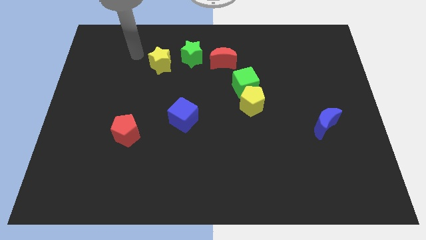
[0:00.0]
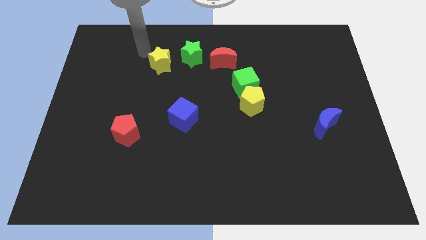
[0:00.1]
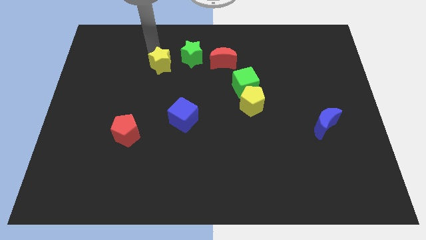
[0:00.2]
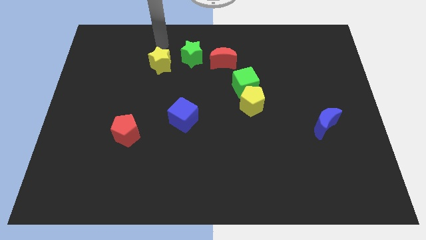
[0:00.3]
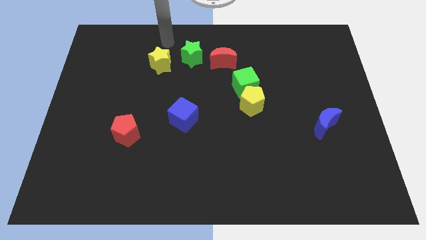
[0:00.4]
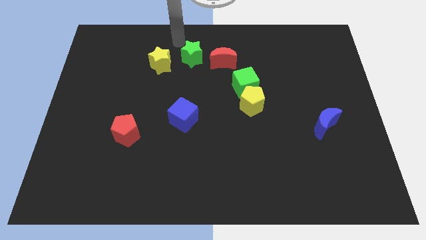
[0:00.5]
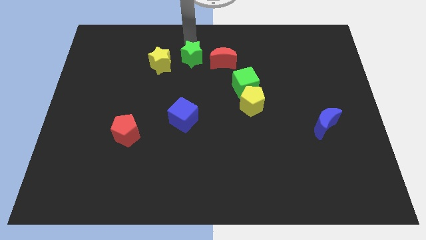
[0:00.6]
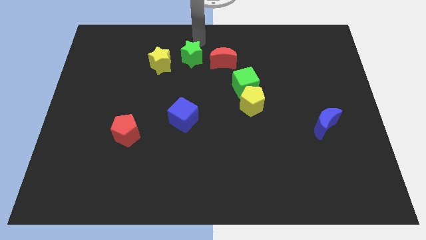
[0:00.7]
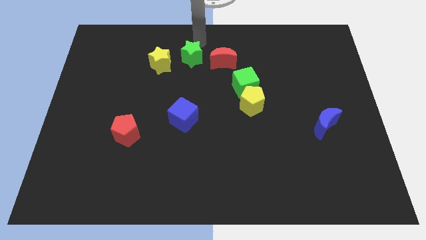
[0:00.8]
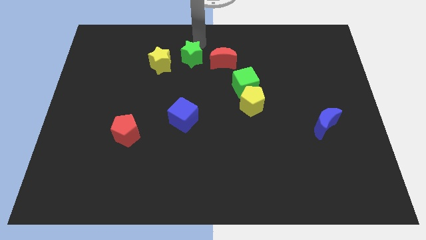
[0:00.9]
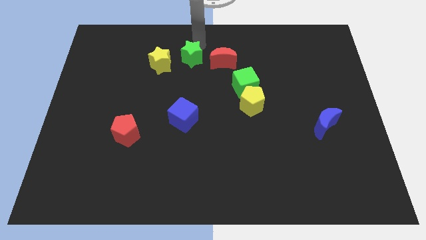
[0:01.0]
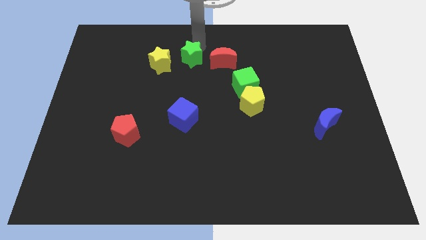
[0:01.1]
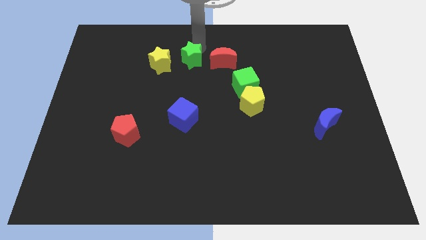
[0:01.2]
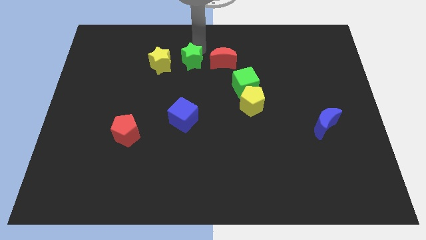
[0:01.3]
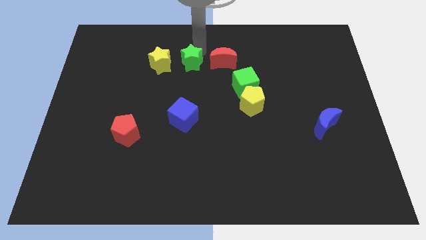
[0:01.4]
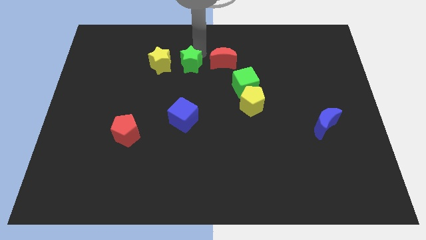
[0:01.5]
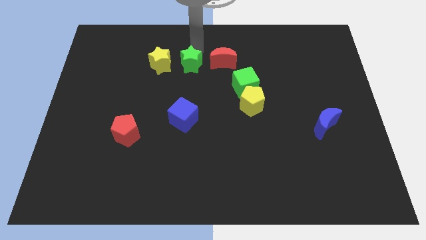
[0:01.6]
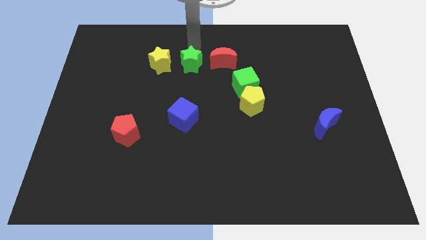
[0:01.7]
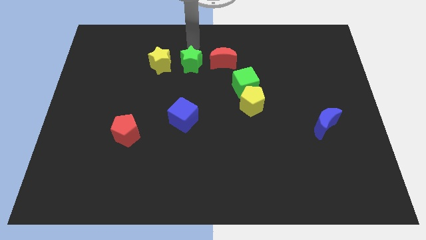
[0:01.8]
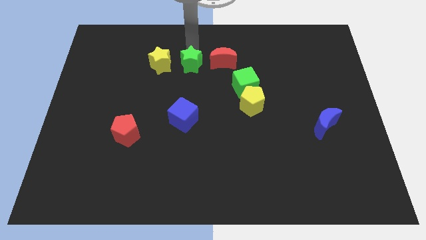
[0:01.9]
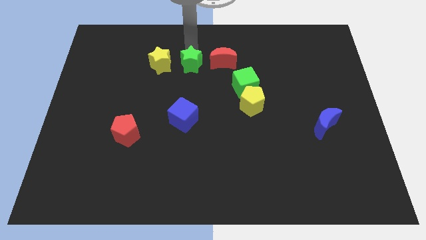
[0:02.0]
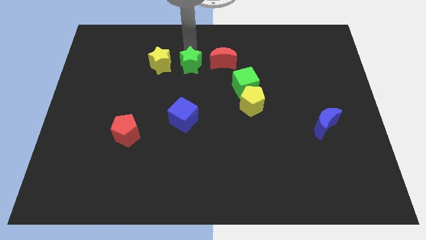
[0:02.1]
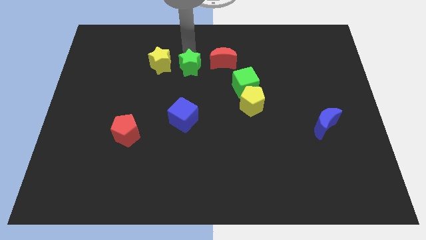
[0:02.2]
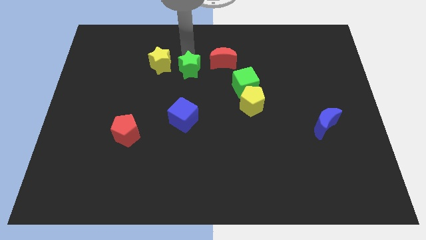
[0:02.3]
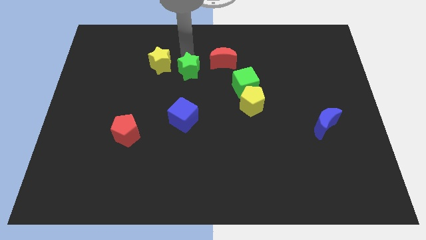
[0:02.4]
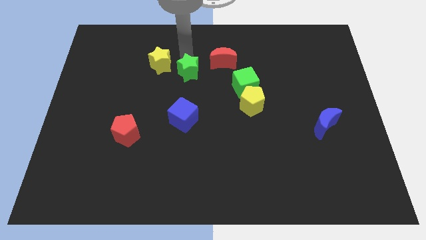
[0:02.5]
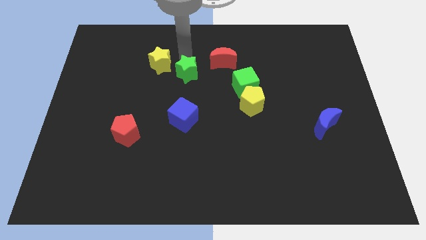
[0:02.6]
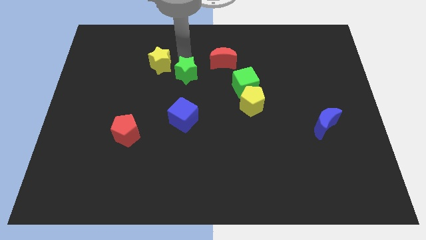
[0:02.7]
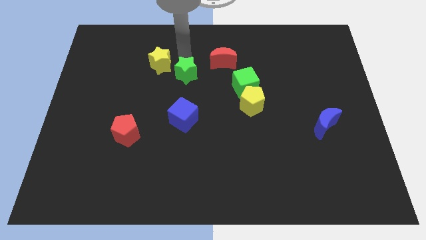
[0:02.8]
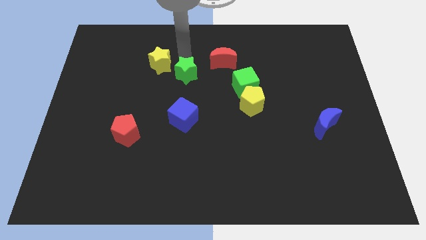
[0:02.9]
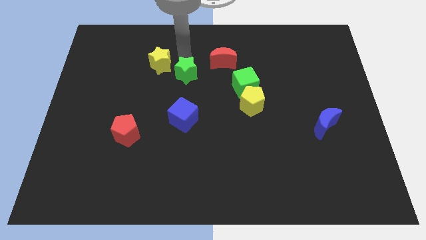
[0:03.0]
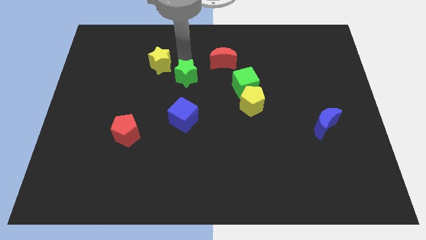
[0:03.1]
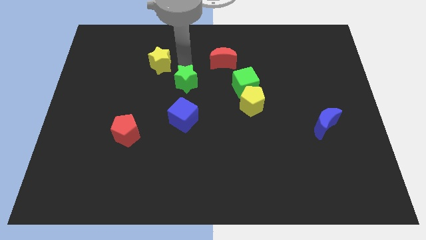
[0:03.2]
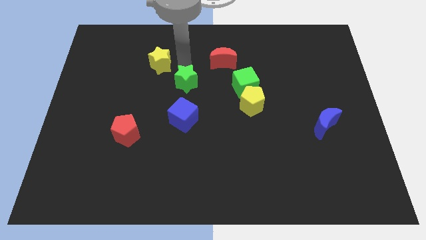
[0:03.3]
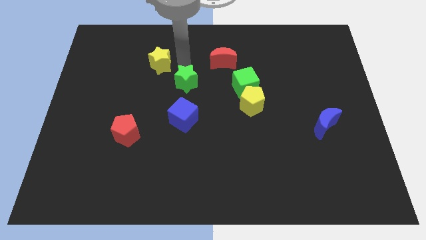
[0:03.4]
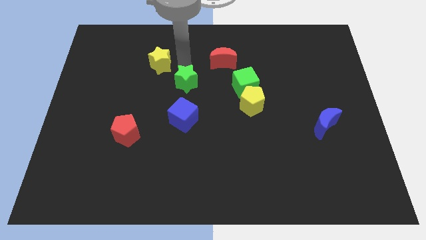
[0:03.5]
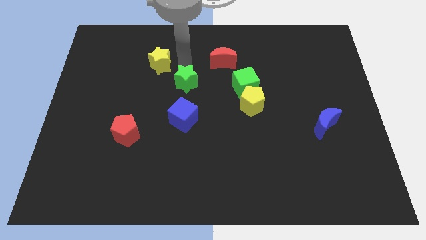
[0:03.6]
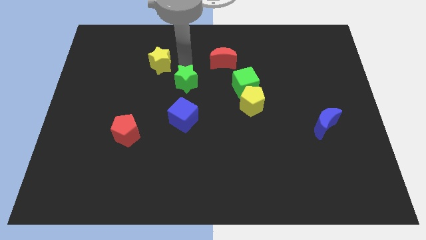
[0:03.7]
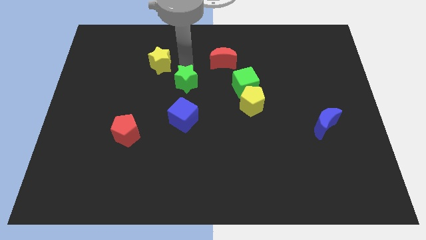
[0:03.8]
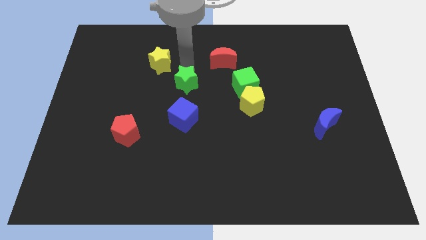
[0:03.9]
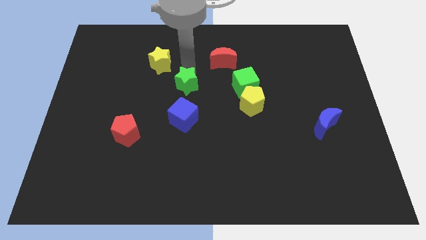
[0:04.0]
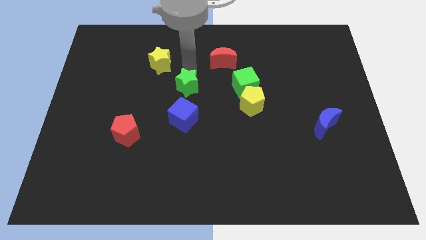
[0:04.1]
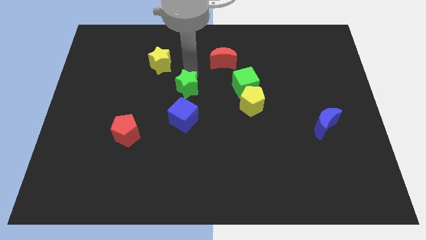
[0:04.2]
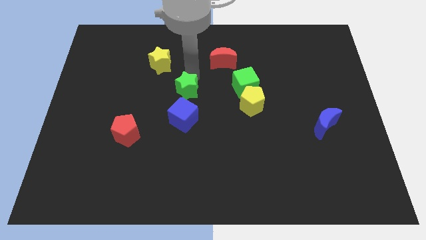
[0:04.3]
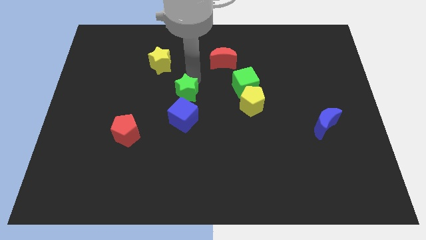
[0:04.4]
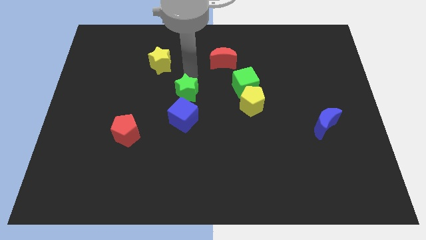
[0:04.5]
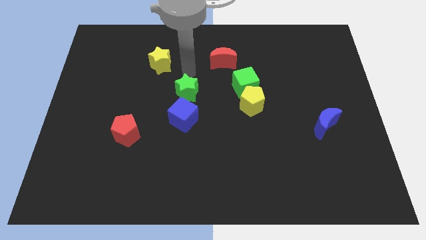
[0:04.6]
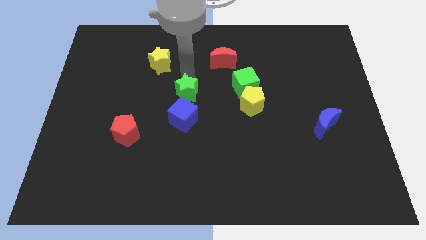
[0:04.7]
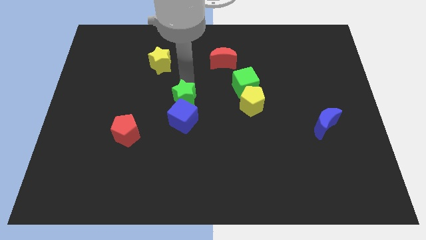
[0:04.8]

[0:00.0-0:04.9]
move the green star close to the blue cube

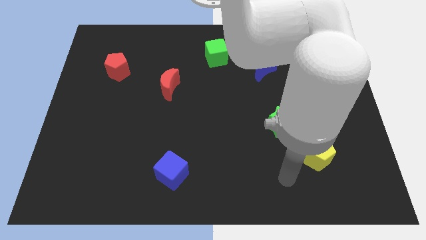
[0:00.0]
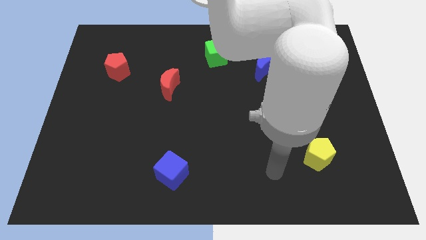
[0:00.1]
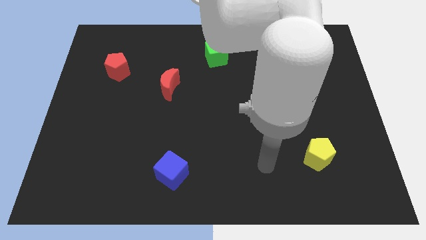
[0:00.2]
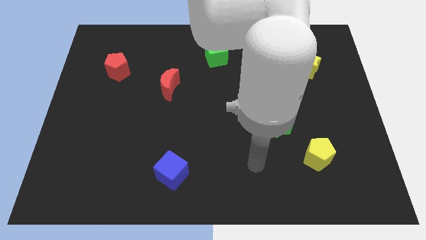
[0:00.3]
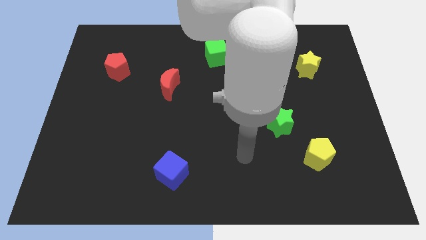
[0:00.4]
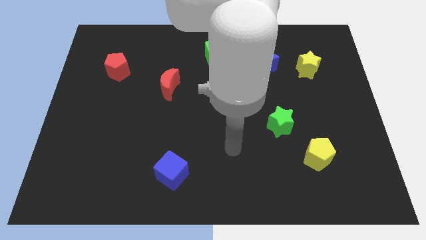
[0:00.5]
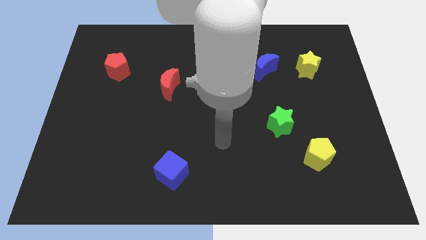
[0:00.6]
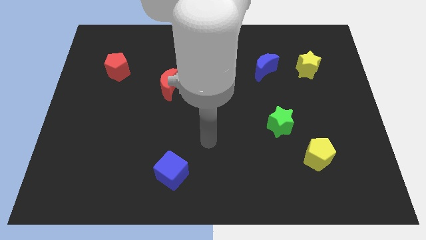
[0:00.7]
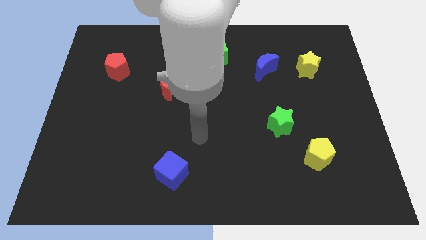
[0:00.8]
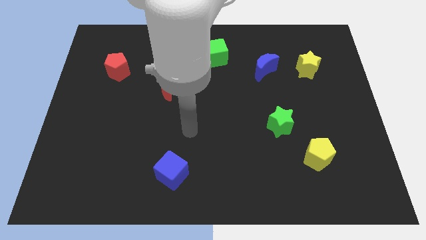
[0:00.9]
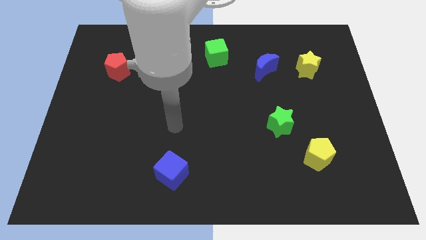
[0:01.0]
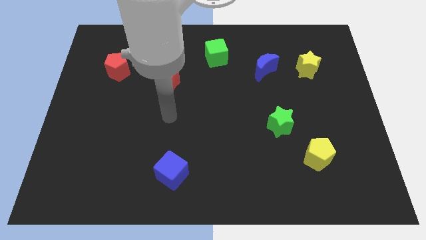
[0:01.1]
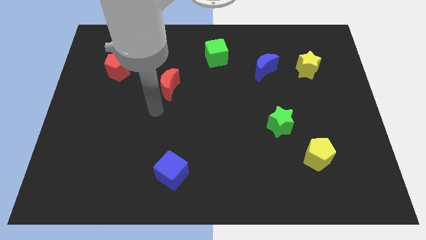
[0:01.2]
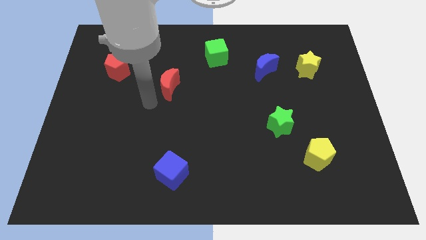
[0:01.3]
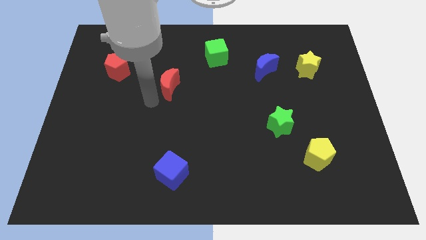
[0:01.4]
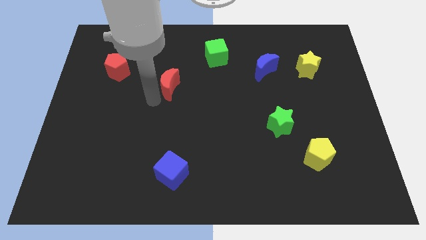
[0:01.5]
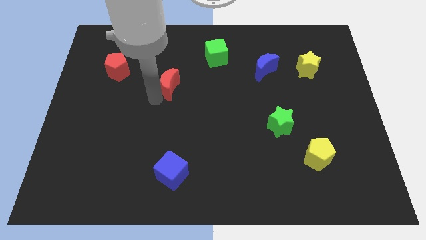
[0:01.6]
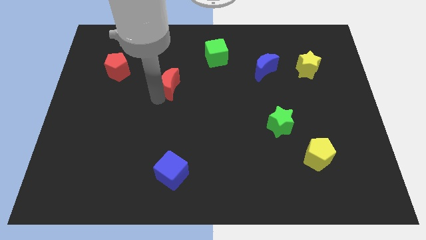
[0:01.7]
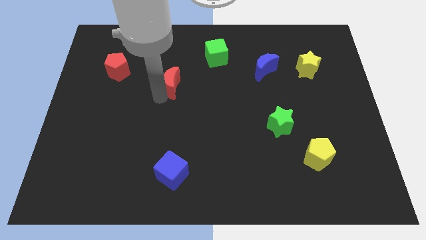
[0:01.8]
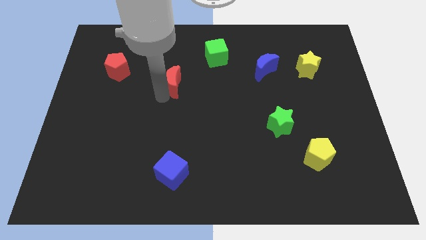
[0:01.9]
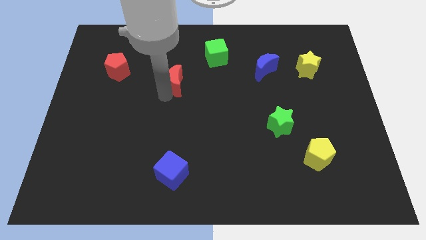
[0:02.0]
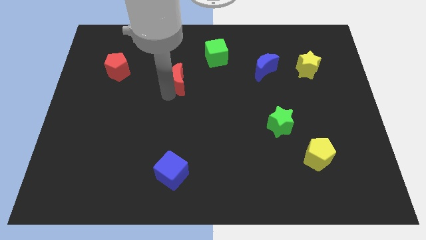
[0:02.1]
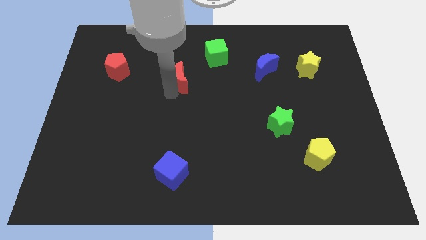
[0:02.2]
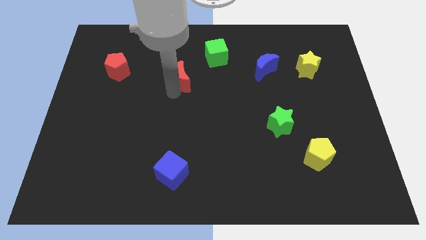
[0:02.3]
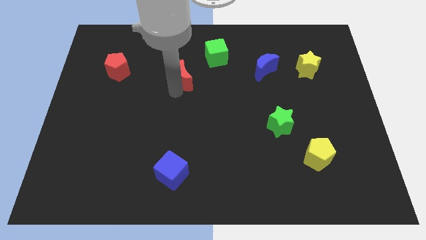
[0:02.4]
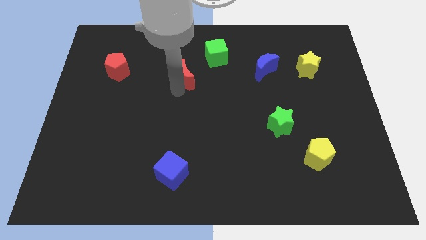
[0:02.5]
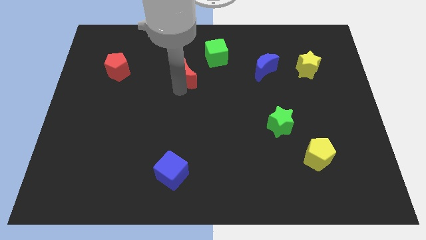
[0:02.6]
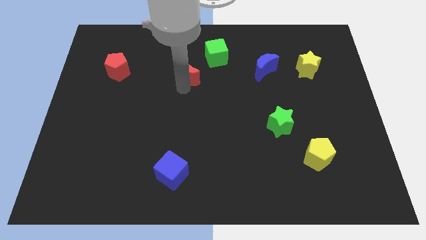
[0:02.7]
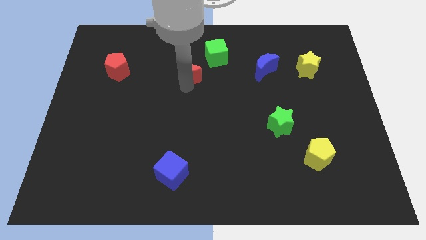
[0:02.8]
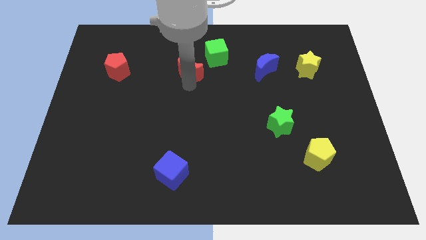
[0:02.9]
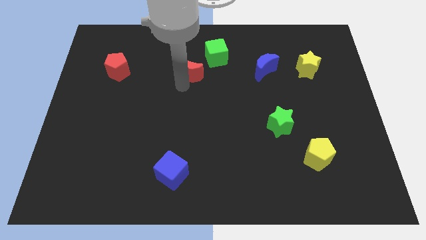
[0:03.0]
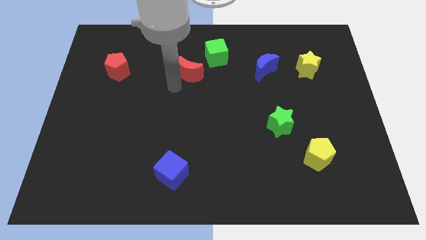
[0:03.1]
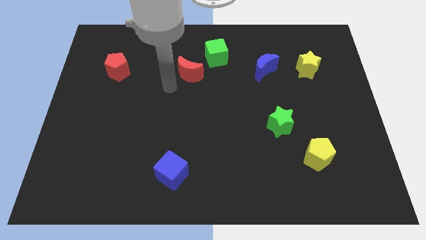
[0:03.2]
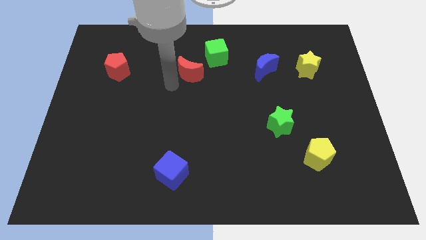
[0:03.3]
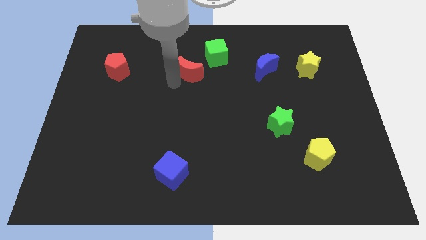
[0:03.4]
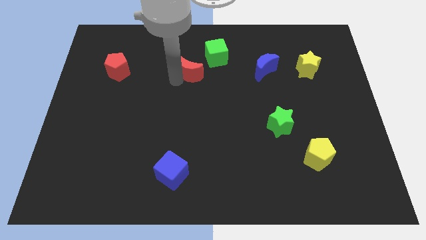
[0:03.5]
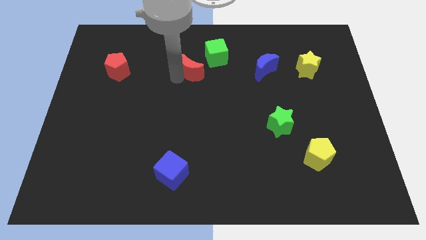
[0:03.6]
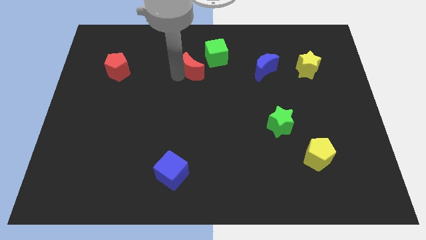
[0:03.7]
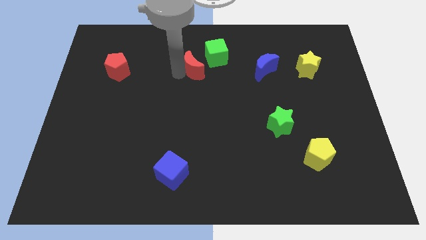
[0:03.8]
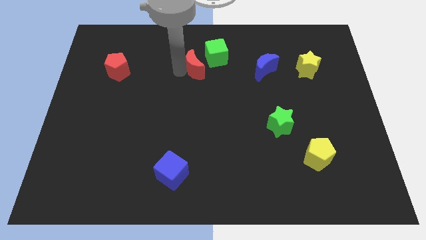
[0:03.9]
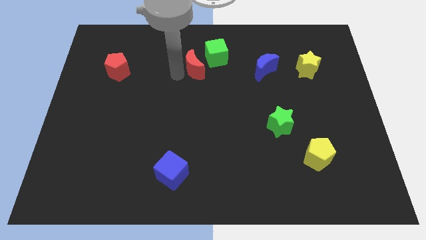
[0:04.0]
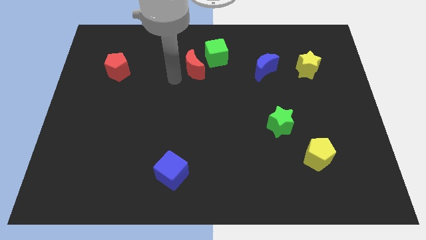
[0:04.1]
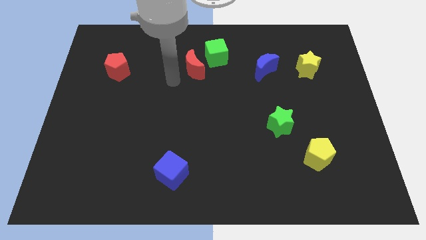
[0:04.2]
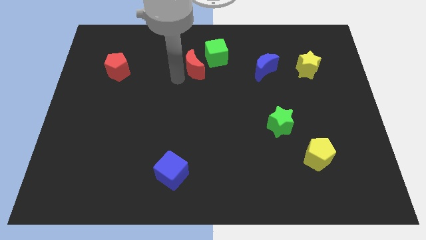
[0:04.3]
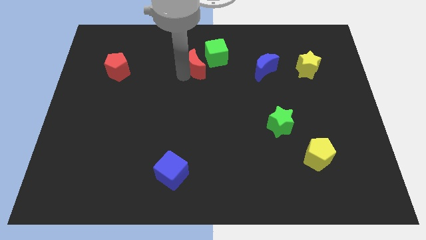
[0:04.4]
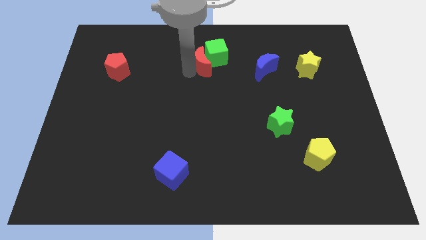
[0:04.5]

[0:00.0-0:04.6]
slide the red moon next to the green cube
